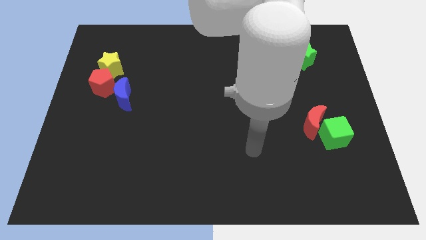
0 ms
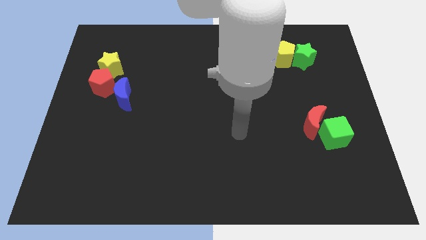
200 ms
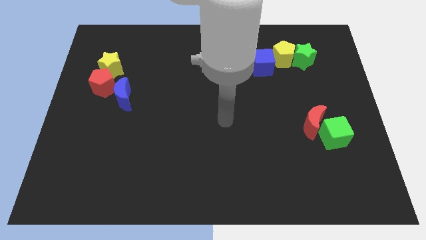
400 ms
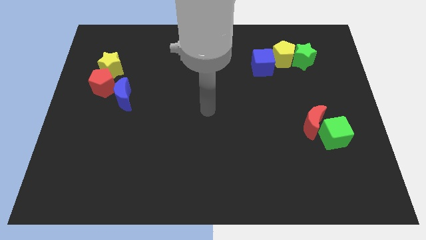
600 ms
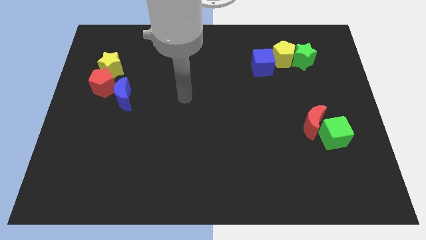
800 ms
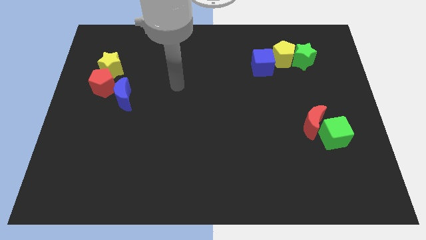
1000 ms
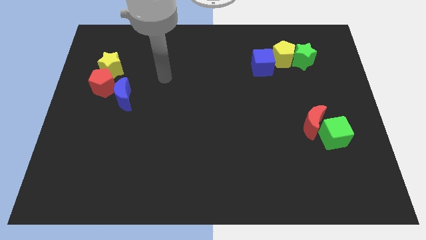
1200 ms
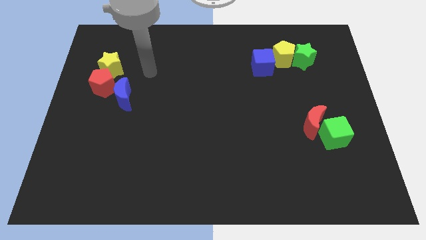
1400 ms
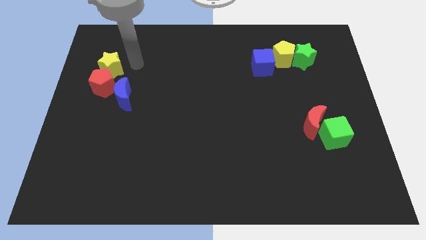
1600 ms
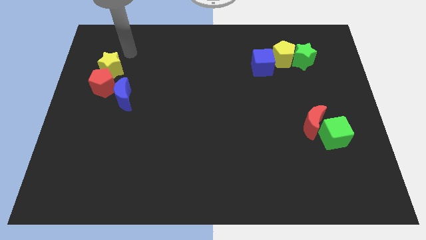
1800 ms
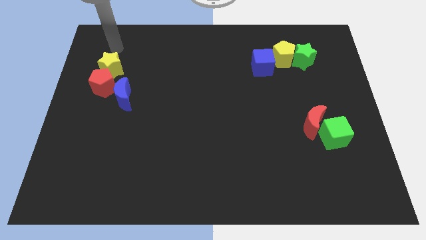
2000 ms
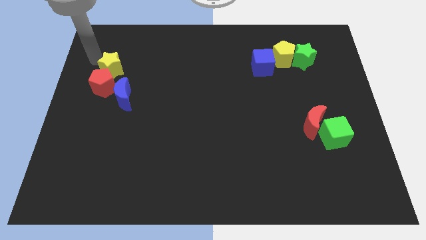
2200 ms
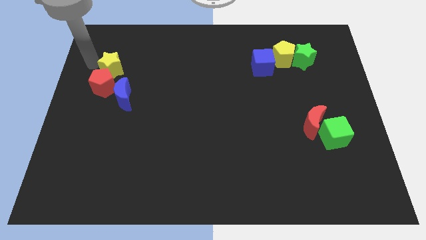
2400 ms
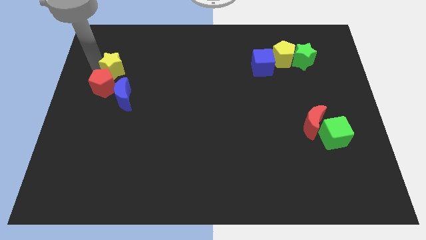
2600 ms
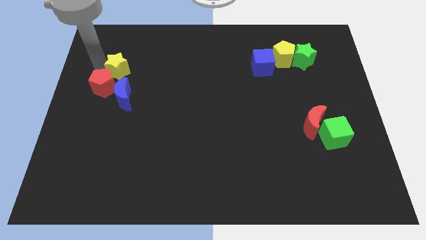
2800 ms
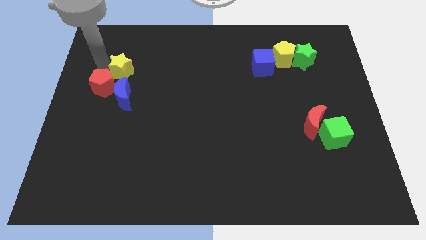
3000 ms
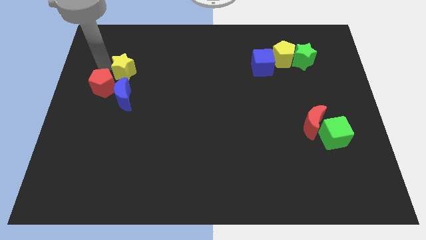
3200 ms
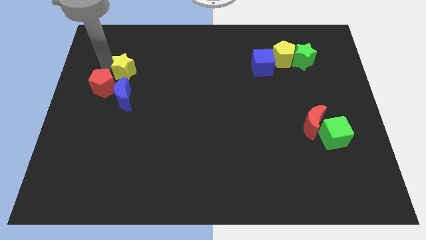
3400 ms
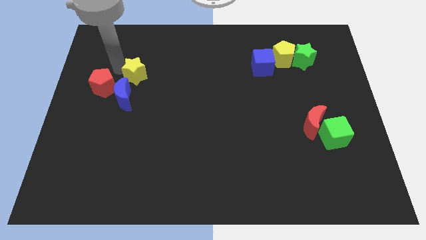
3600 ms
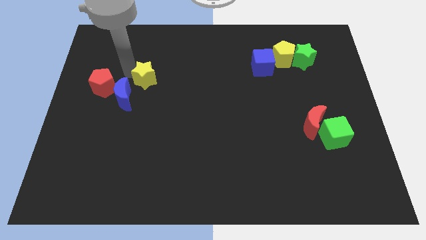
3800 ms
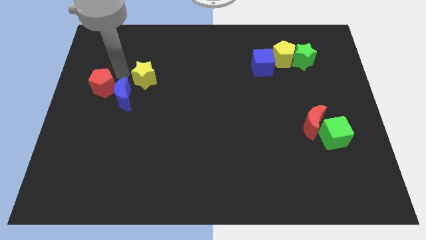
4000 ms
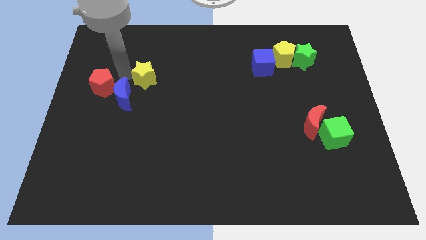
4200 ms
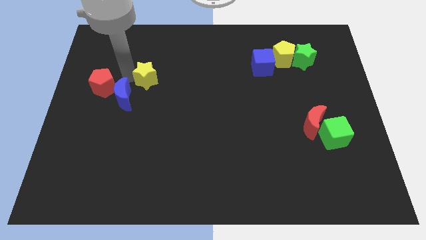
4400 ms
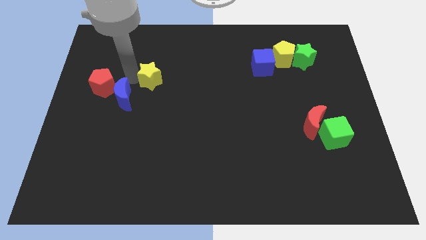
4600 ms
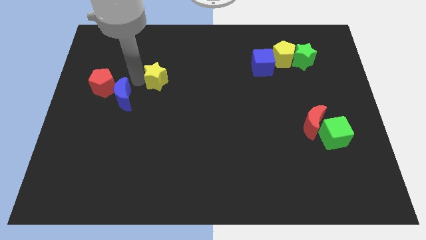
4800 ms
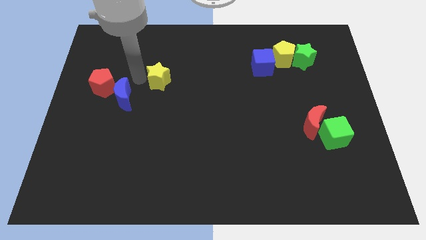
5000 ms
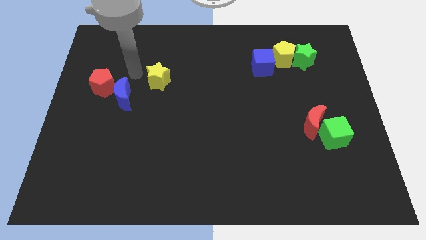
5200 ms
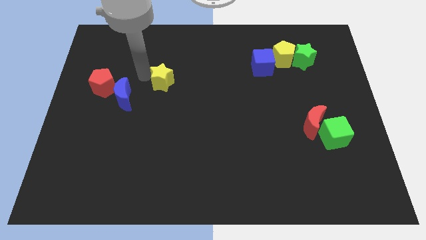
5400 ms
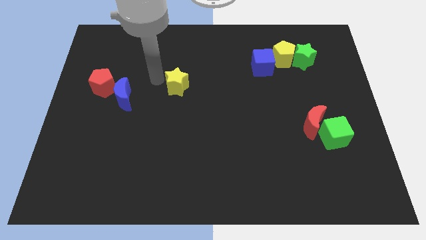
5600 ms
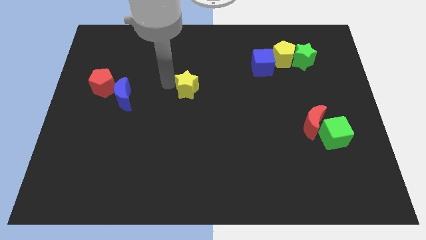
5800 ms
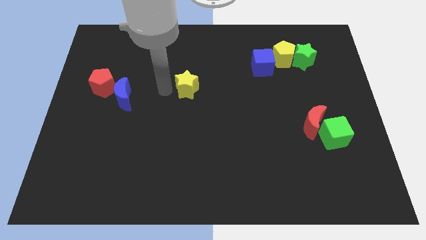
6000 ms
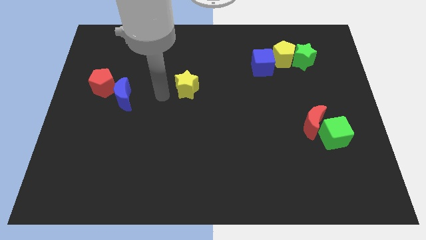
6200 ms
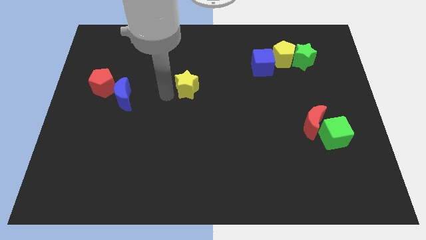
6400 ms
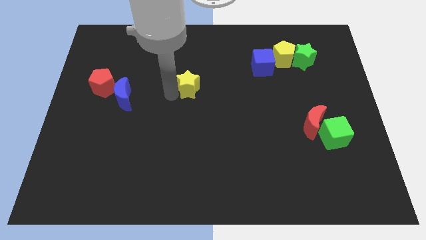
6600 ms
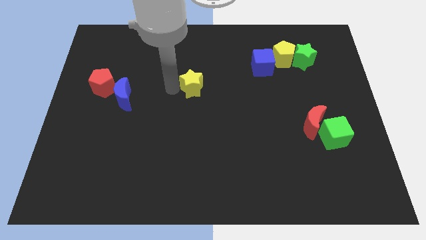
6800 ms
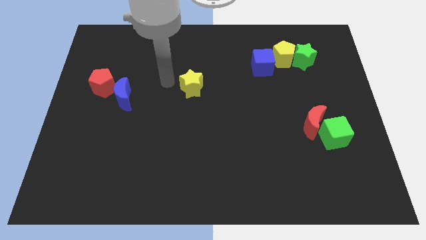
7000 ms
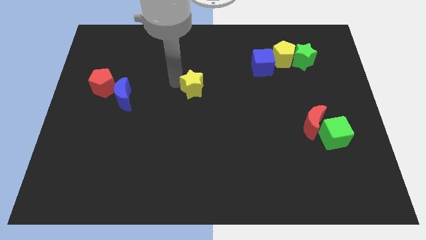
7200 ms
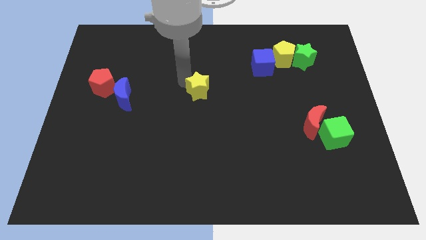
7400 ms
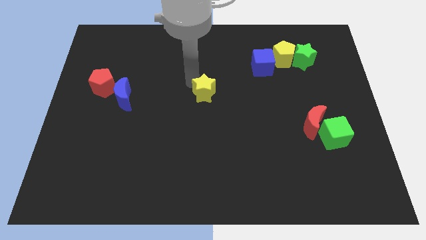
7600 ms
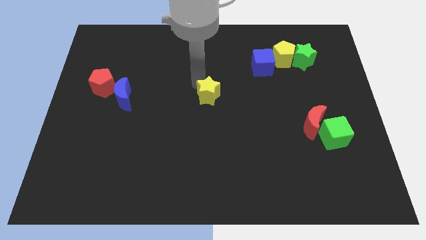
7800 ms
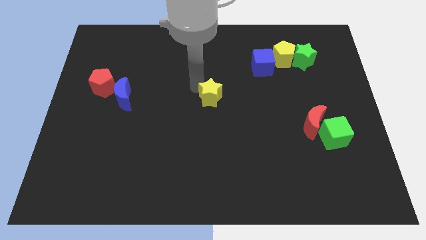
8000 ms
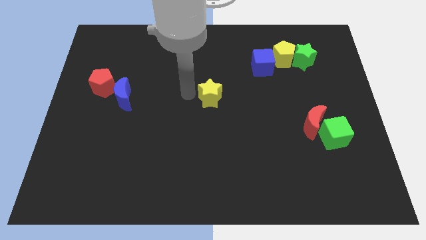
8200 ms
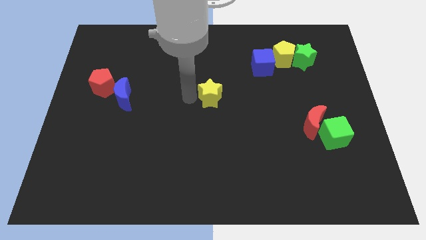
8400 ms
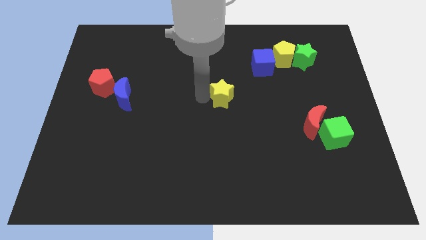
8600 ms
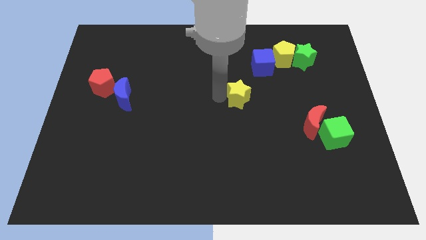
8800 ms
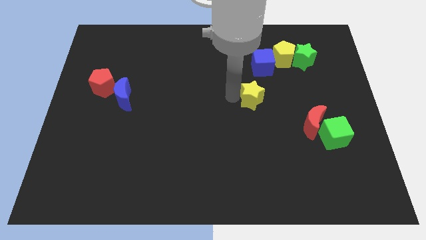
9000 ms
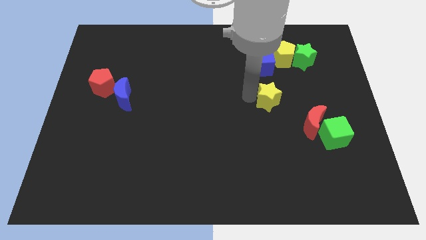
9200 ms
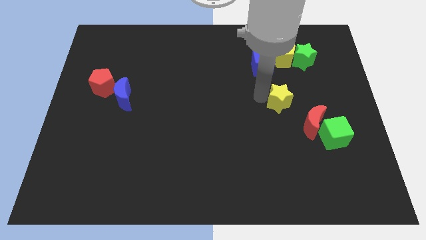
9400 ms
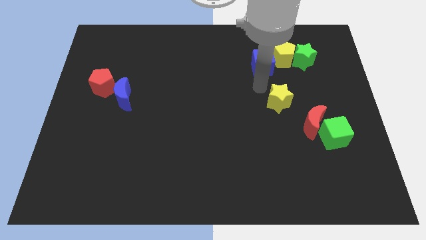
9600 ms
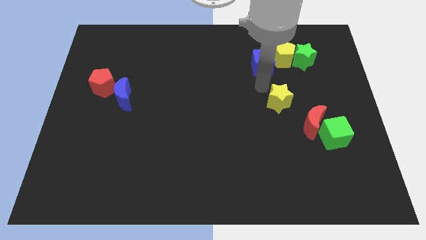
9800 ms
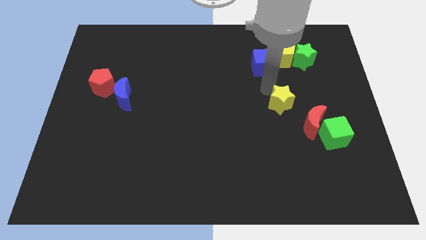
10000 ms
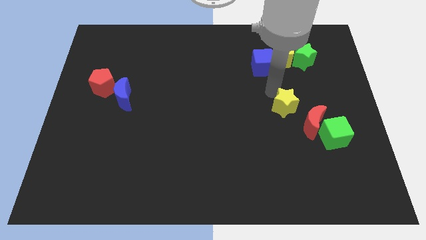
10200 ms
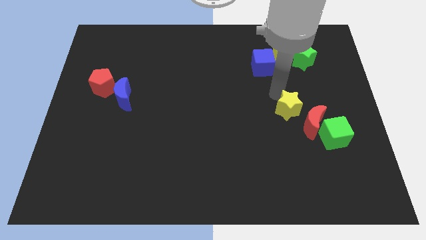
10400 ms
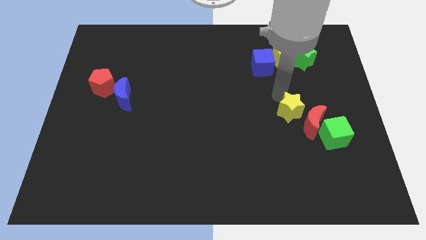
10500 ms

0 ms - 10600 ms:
put the yellow star next to the red moon

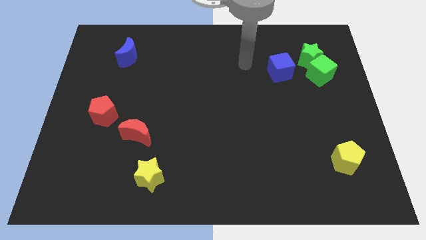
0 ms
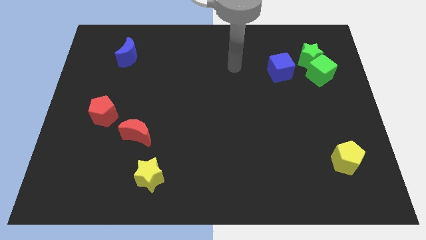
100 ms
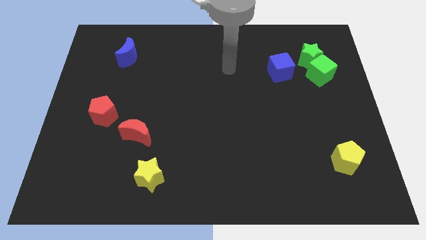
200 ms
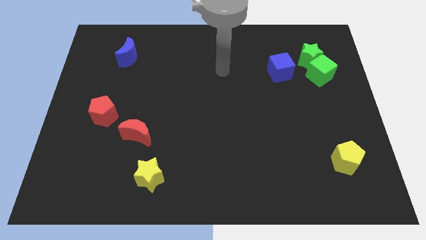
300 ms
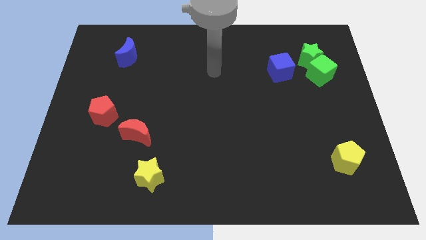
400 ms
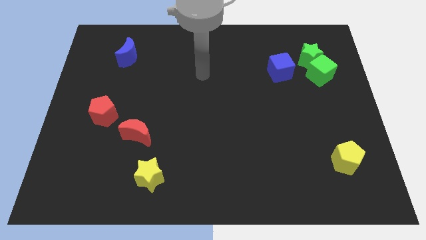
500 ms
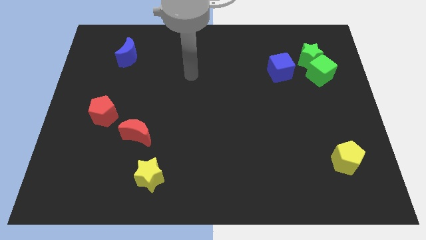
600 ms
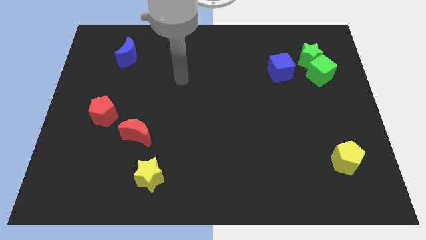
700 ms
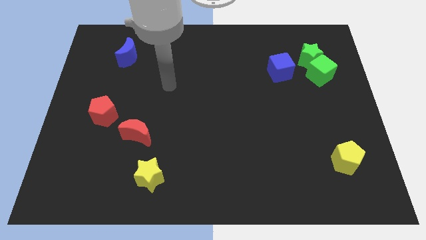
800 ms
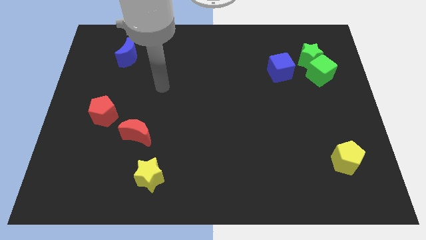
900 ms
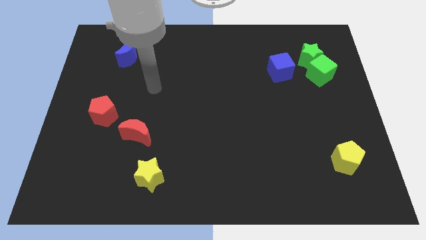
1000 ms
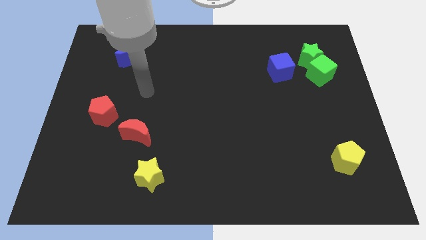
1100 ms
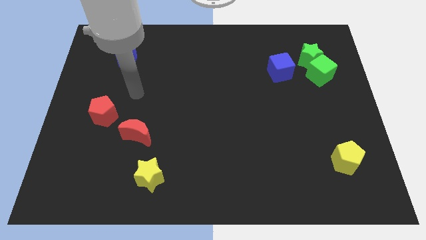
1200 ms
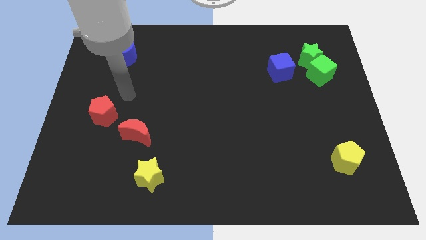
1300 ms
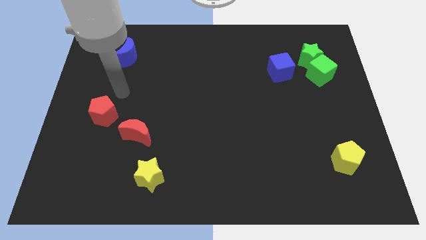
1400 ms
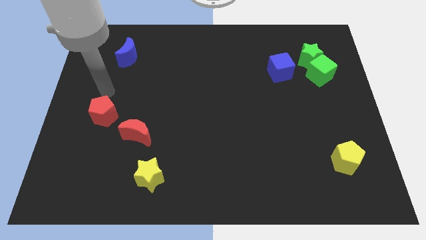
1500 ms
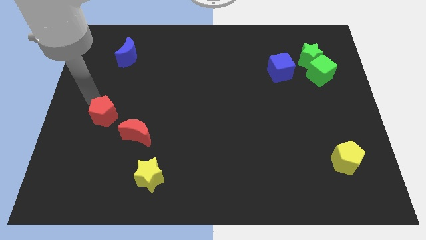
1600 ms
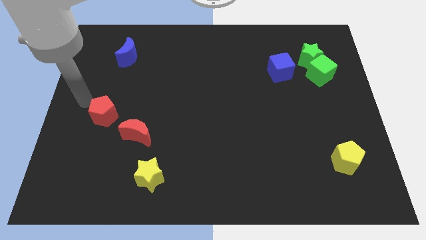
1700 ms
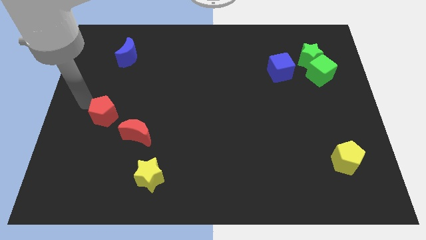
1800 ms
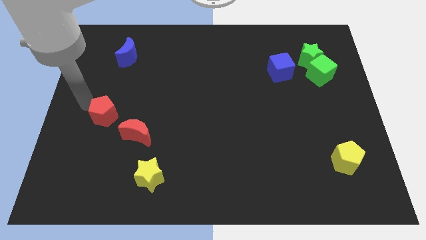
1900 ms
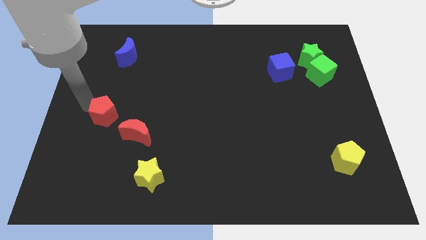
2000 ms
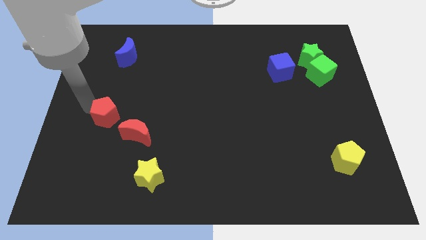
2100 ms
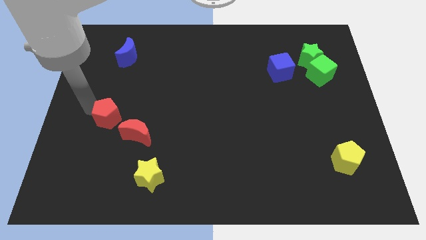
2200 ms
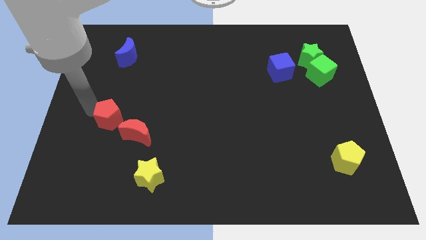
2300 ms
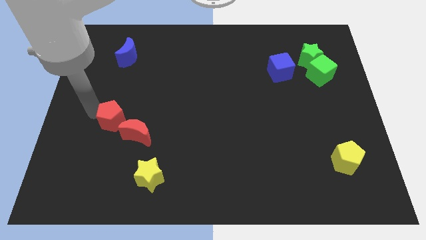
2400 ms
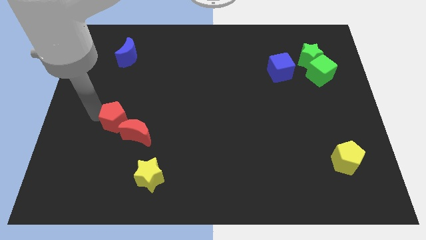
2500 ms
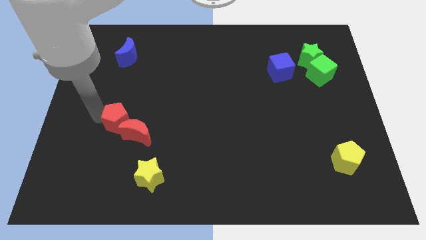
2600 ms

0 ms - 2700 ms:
move the red pentagon to the red moon
